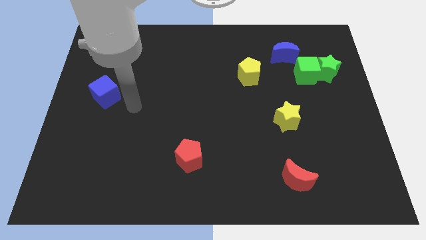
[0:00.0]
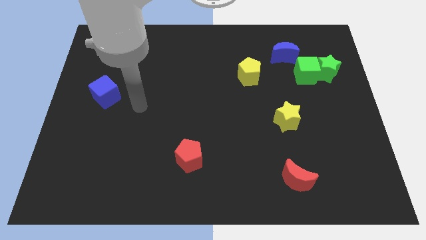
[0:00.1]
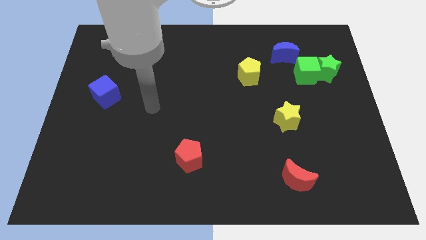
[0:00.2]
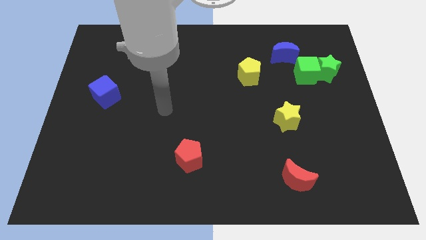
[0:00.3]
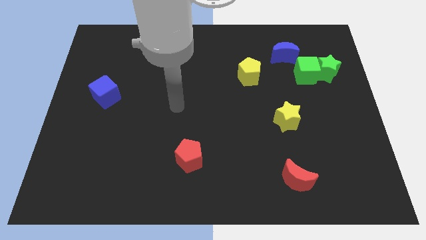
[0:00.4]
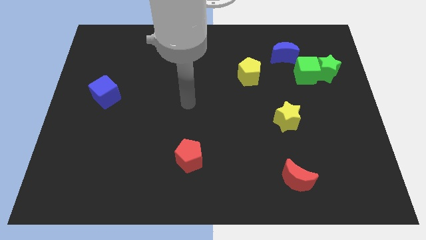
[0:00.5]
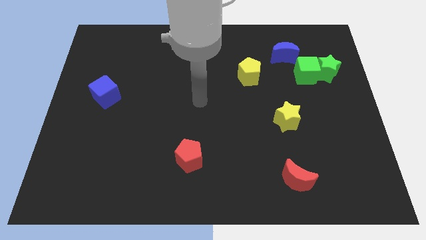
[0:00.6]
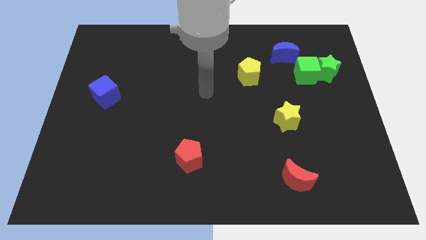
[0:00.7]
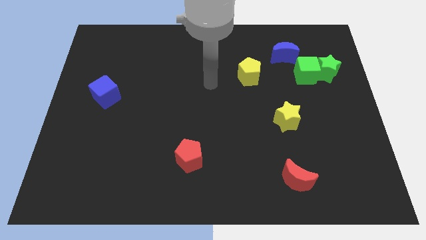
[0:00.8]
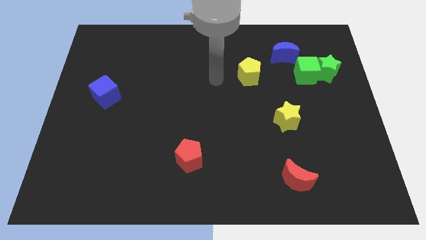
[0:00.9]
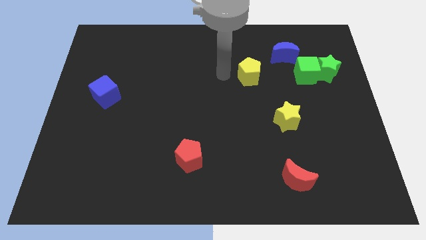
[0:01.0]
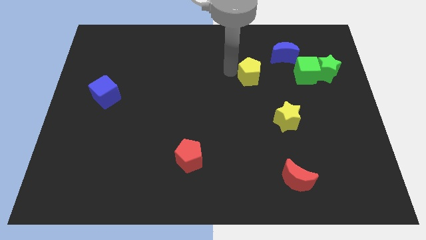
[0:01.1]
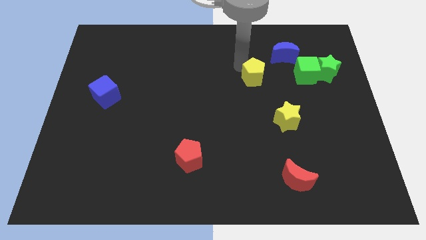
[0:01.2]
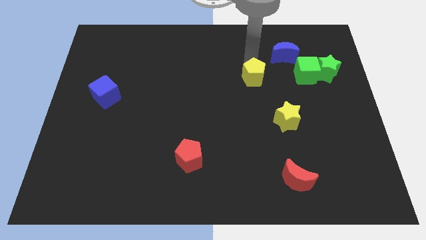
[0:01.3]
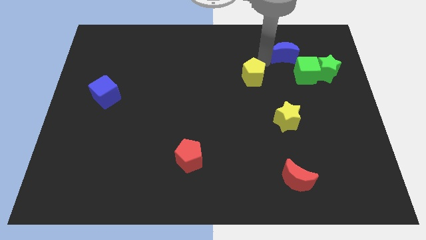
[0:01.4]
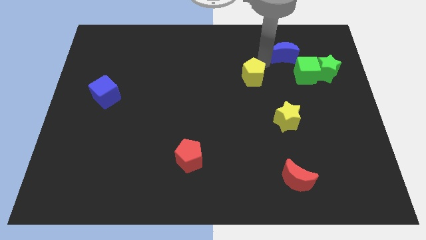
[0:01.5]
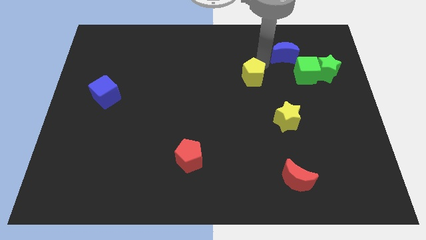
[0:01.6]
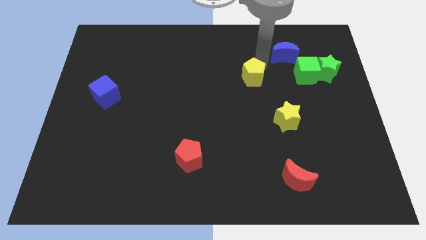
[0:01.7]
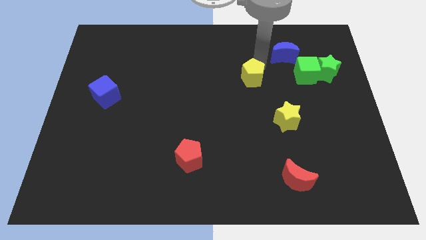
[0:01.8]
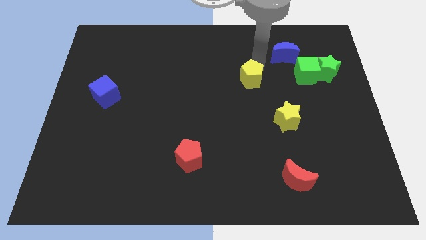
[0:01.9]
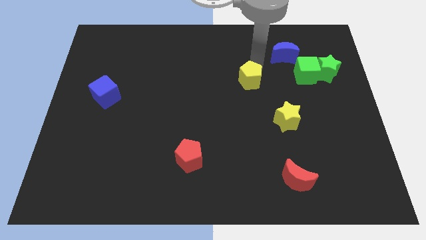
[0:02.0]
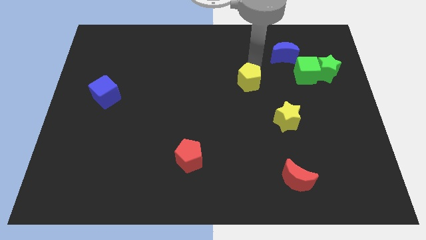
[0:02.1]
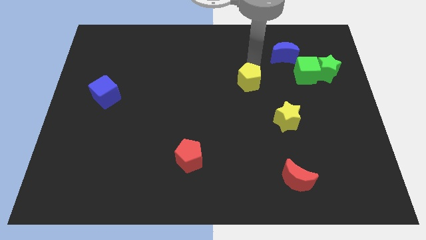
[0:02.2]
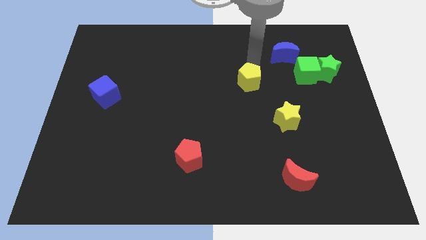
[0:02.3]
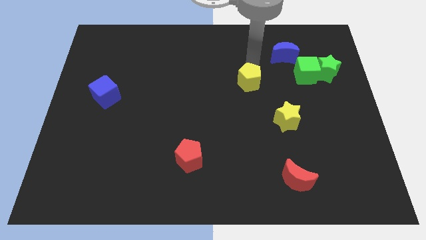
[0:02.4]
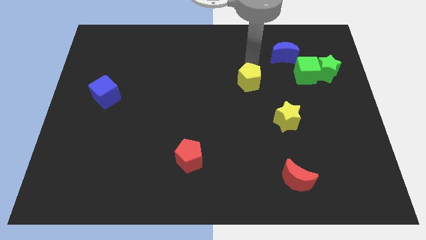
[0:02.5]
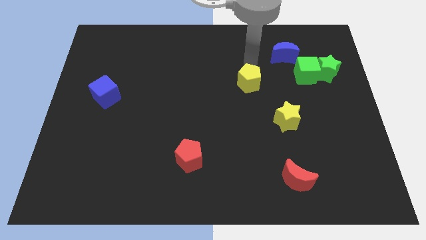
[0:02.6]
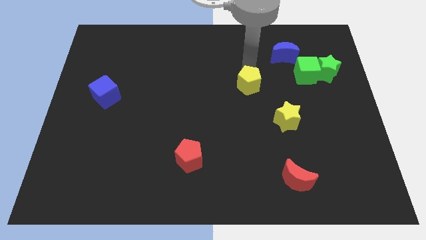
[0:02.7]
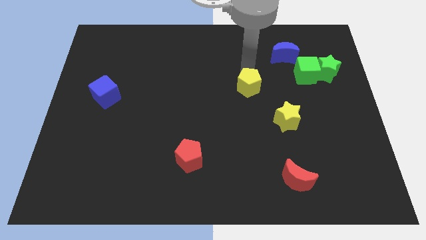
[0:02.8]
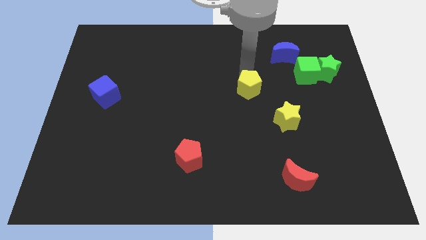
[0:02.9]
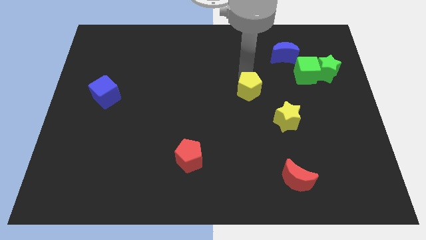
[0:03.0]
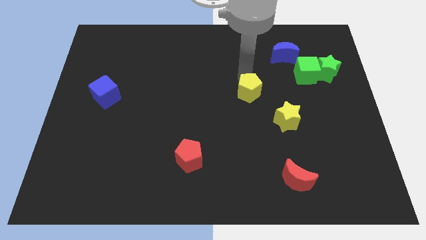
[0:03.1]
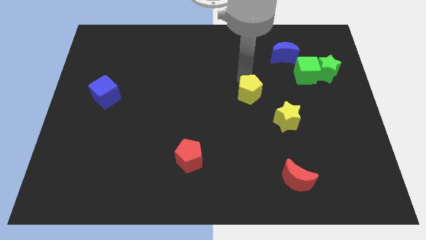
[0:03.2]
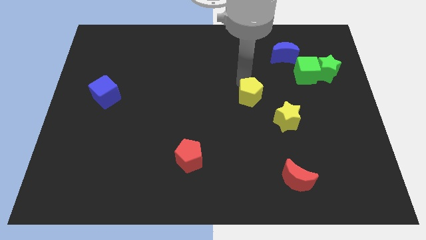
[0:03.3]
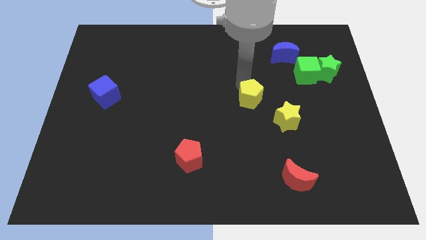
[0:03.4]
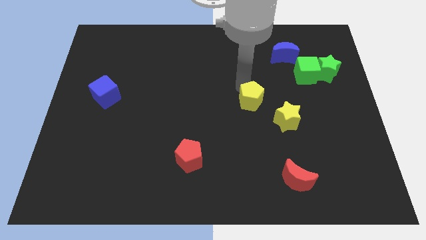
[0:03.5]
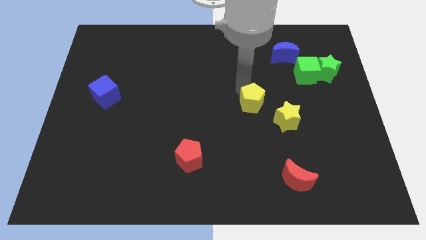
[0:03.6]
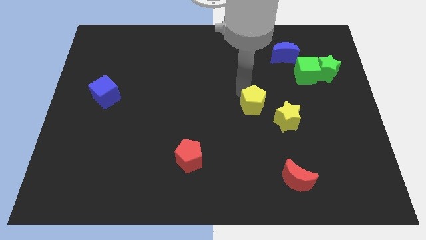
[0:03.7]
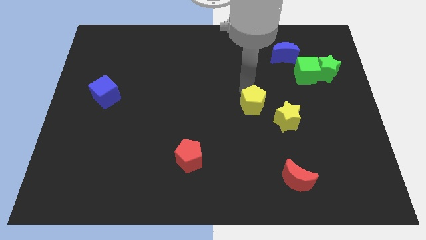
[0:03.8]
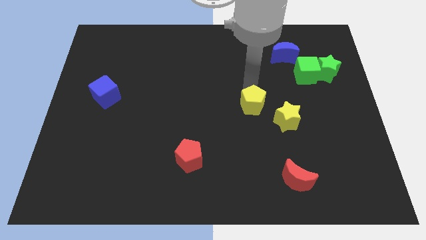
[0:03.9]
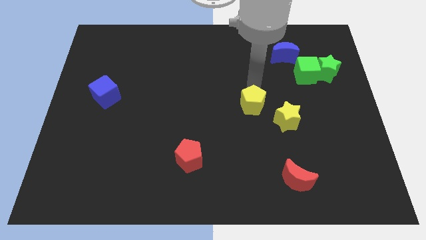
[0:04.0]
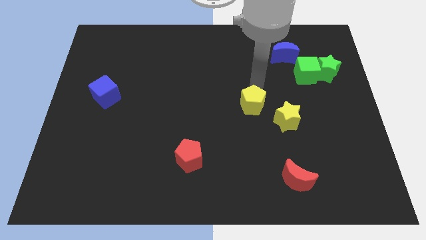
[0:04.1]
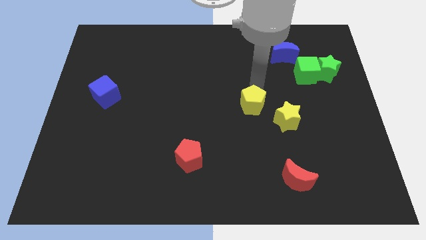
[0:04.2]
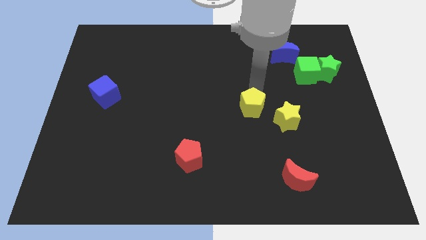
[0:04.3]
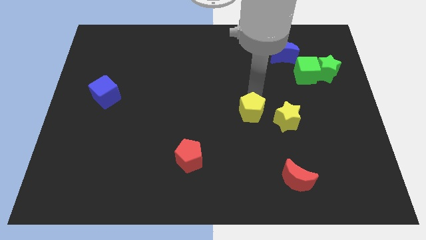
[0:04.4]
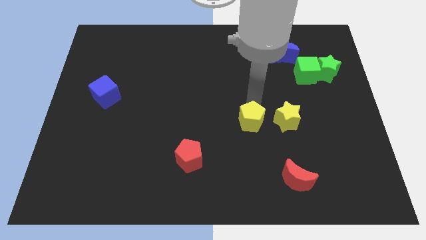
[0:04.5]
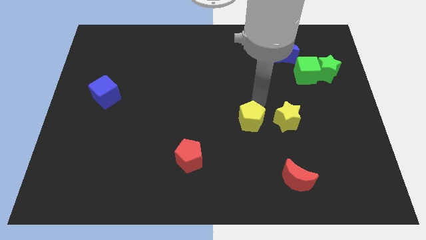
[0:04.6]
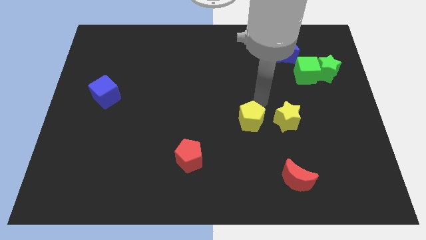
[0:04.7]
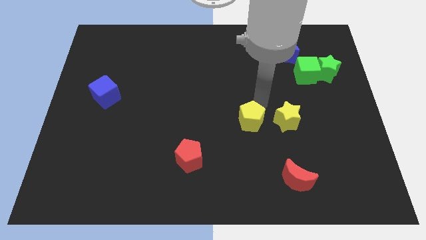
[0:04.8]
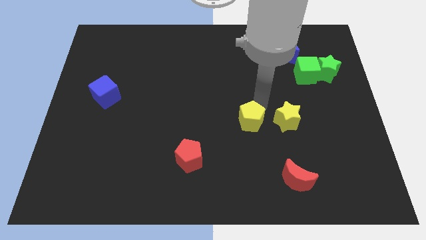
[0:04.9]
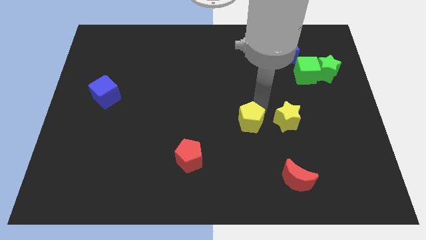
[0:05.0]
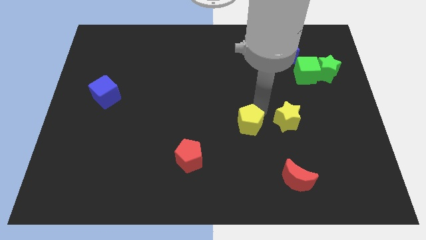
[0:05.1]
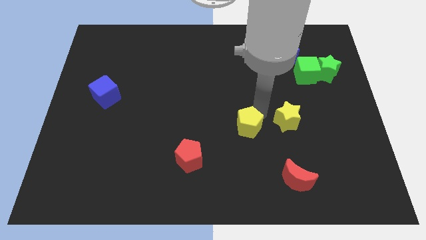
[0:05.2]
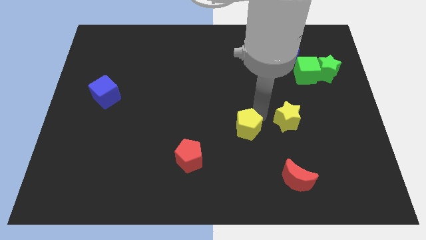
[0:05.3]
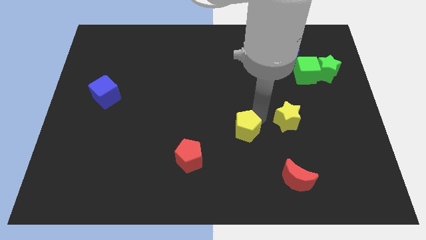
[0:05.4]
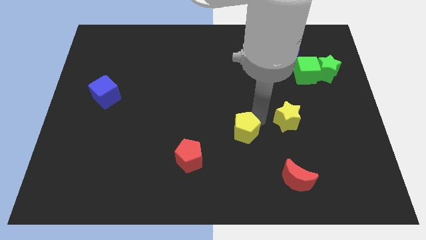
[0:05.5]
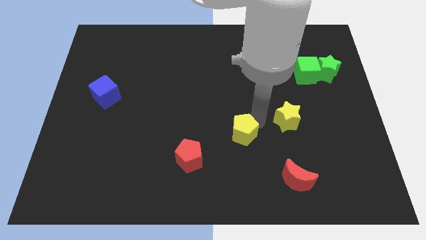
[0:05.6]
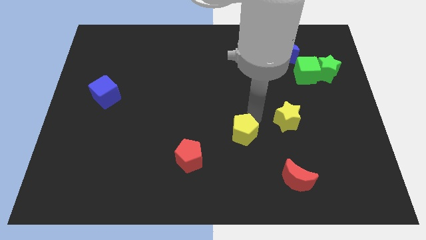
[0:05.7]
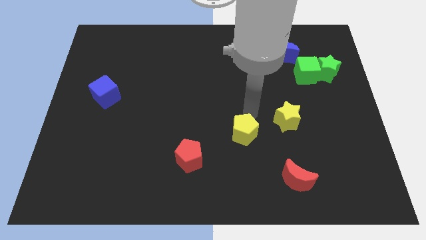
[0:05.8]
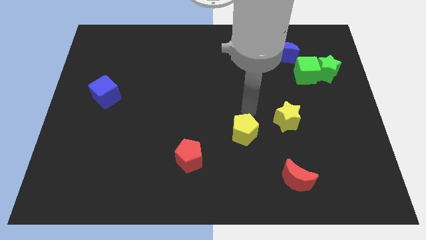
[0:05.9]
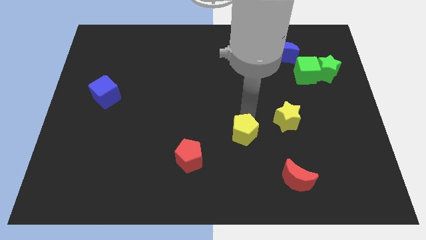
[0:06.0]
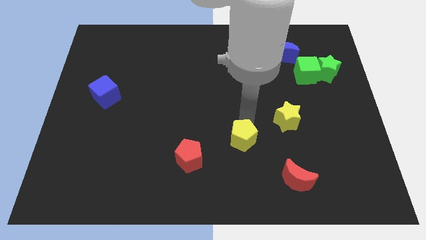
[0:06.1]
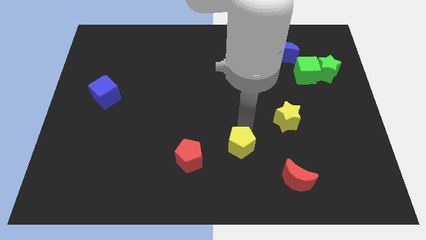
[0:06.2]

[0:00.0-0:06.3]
put the yellow pentagon just right of the red pentagon
